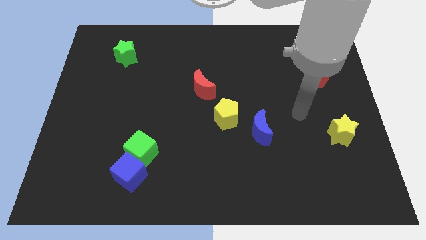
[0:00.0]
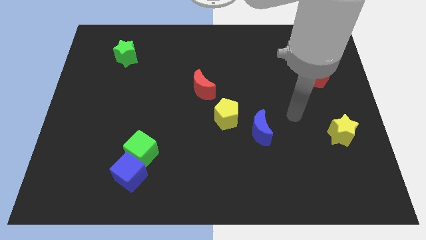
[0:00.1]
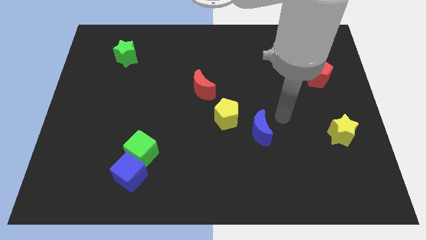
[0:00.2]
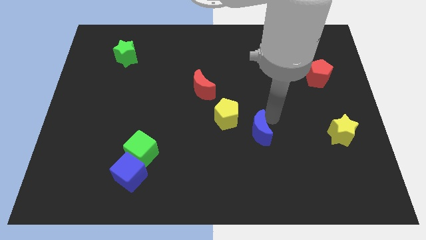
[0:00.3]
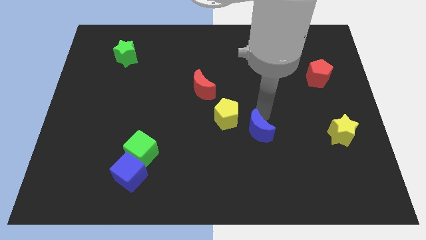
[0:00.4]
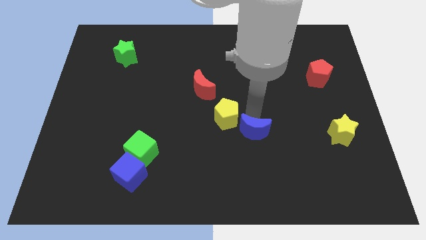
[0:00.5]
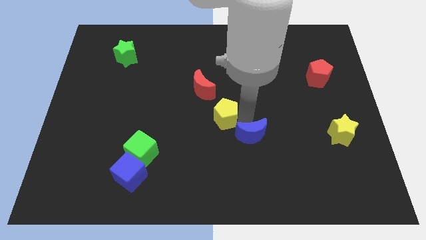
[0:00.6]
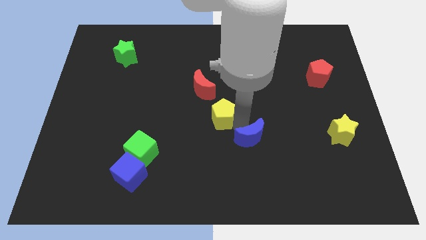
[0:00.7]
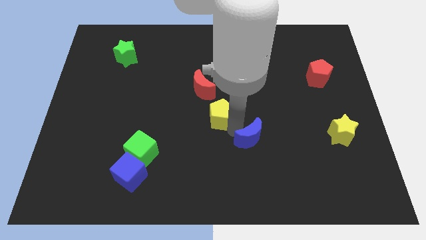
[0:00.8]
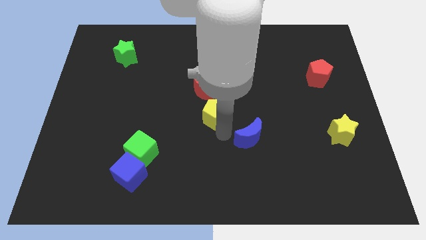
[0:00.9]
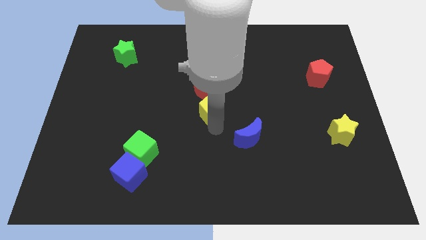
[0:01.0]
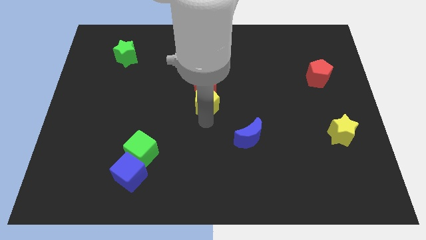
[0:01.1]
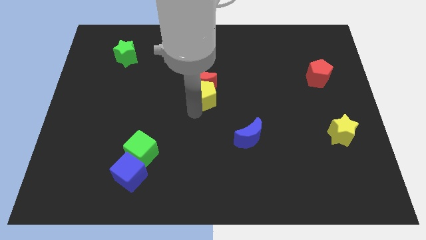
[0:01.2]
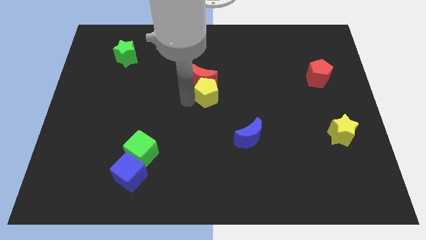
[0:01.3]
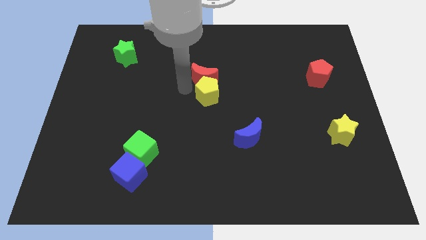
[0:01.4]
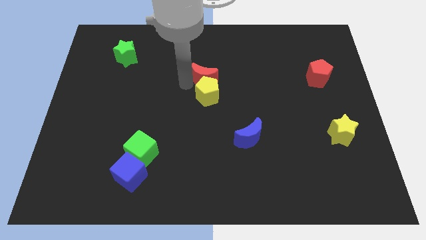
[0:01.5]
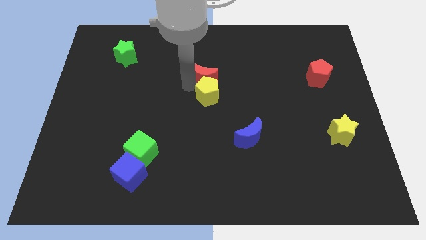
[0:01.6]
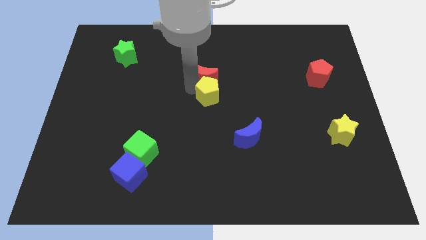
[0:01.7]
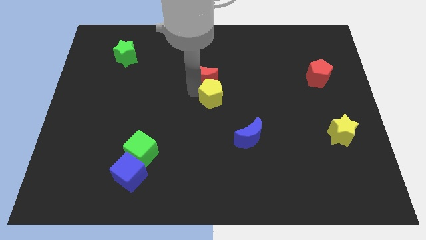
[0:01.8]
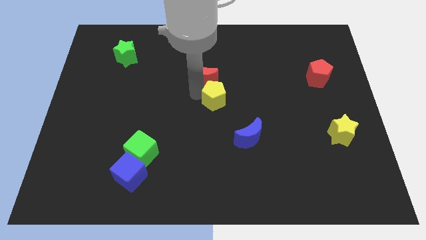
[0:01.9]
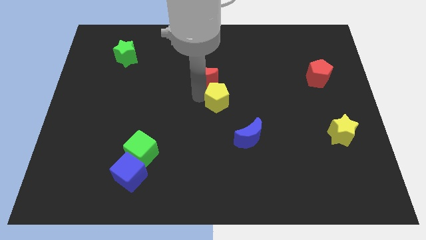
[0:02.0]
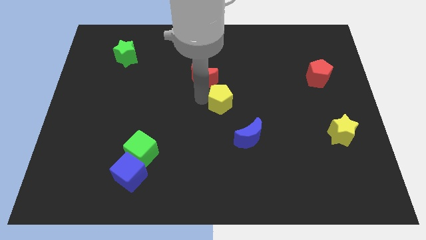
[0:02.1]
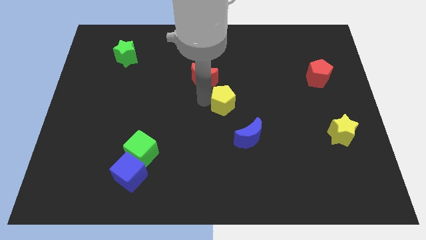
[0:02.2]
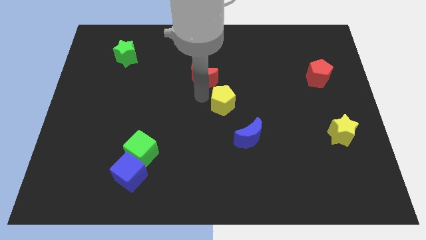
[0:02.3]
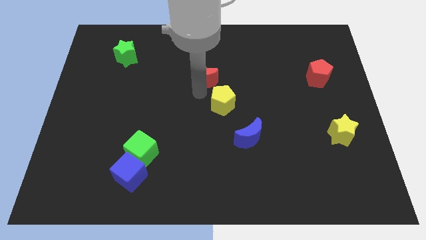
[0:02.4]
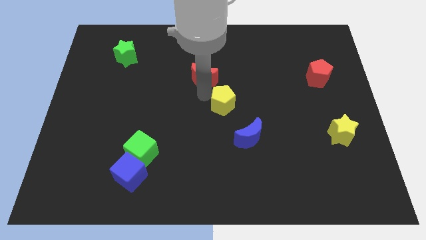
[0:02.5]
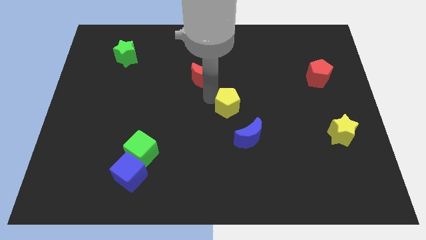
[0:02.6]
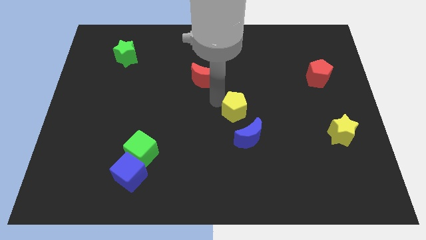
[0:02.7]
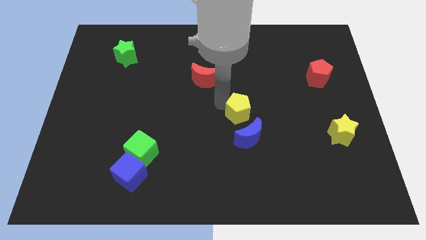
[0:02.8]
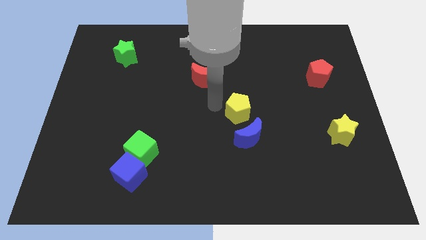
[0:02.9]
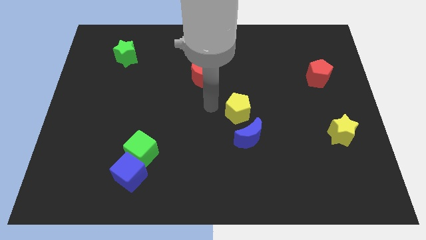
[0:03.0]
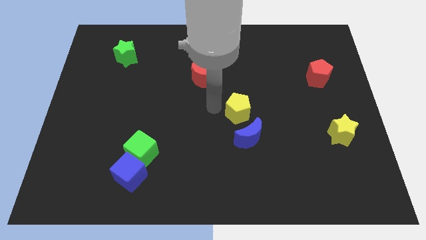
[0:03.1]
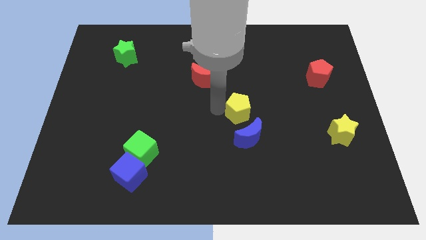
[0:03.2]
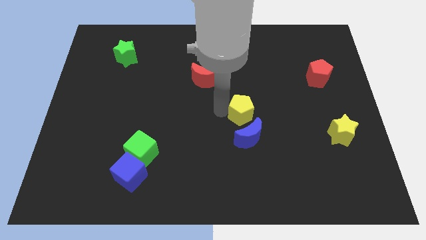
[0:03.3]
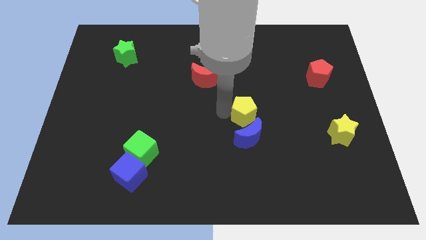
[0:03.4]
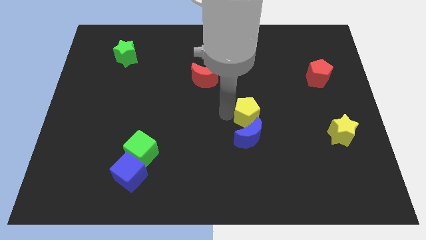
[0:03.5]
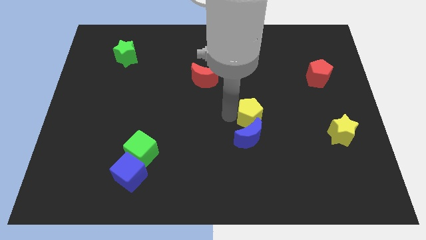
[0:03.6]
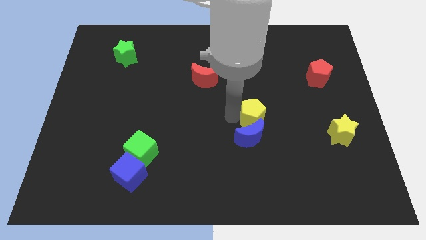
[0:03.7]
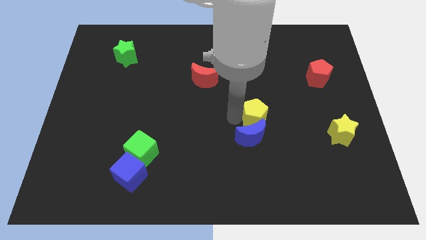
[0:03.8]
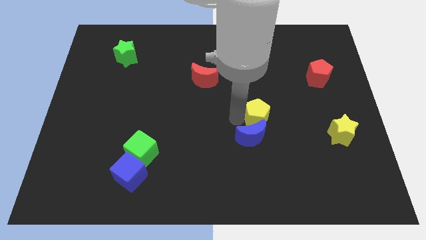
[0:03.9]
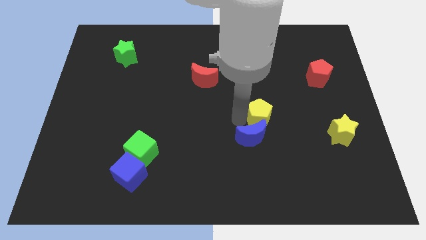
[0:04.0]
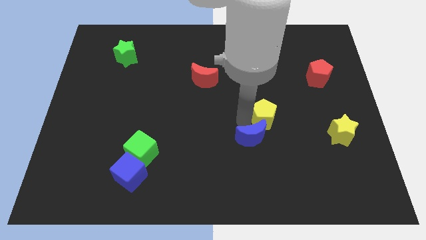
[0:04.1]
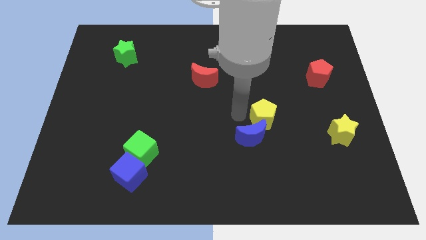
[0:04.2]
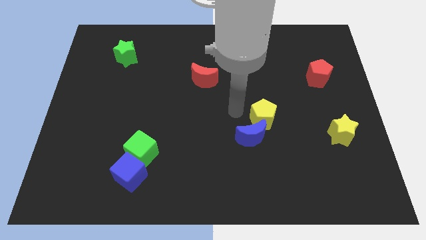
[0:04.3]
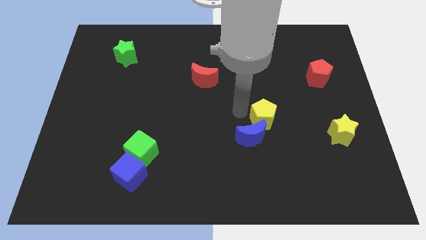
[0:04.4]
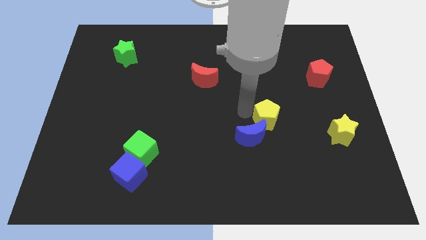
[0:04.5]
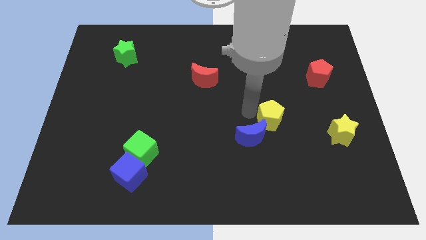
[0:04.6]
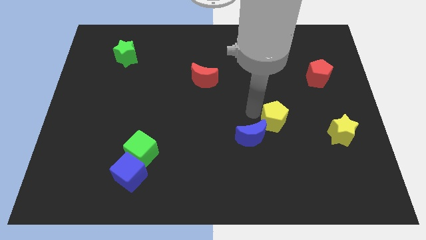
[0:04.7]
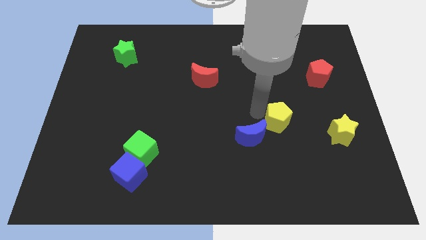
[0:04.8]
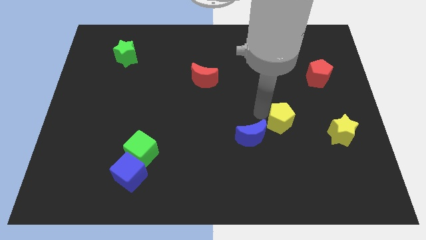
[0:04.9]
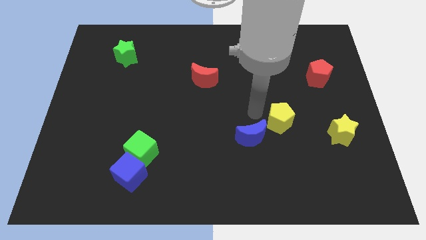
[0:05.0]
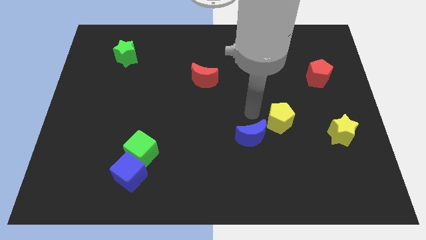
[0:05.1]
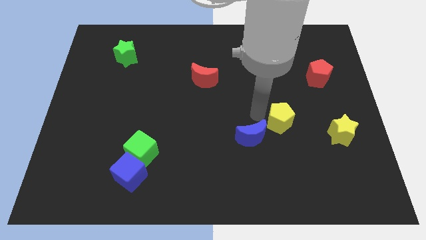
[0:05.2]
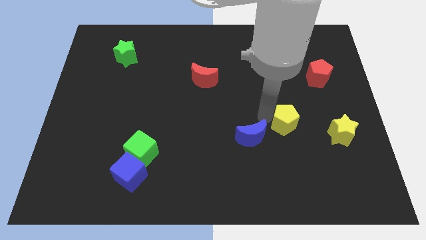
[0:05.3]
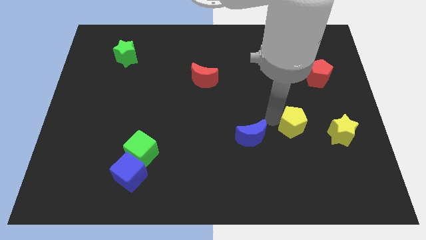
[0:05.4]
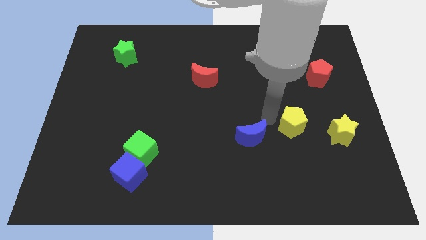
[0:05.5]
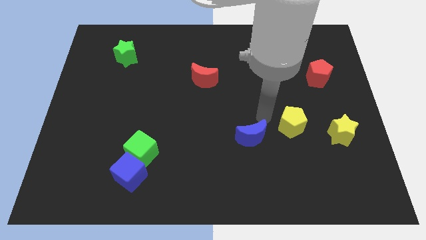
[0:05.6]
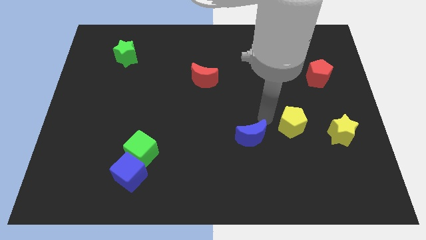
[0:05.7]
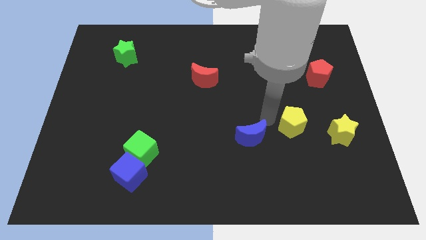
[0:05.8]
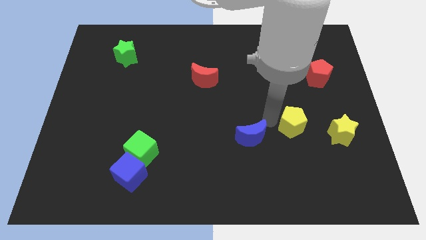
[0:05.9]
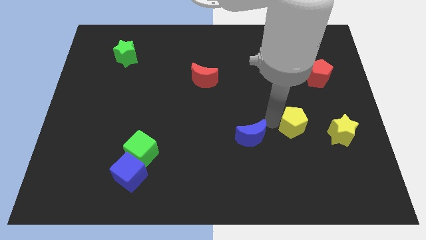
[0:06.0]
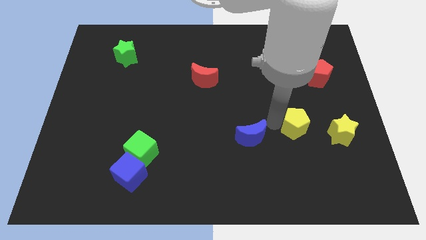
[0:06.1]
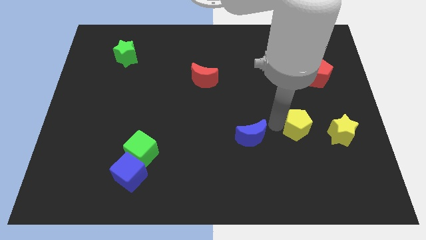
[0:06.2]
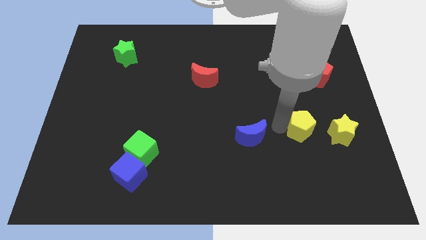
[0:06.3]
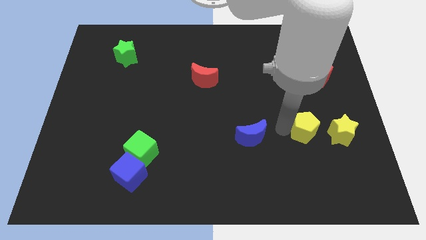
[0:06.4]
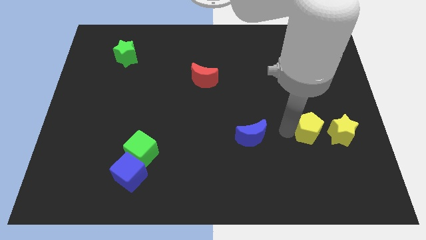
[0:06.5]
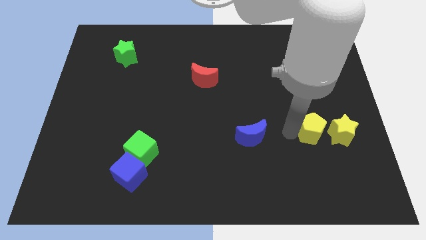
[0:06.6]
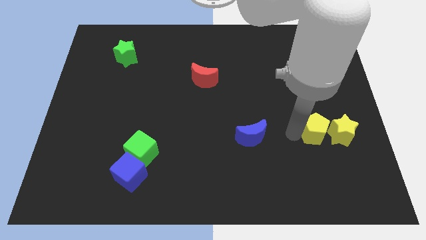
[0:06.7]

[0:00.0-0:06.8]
put the yellow pentagon towards the yellow star
